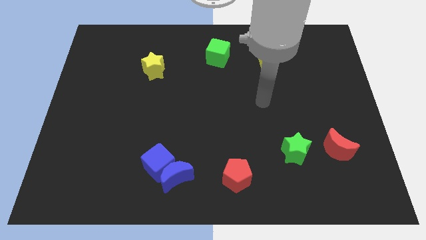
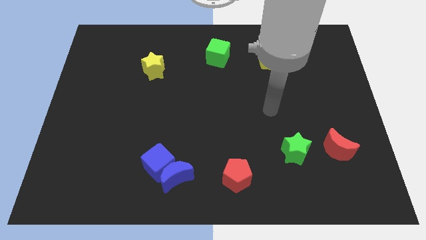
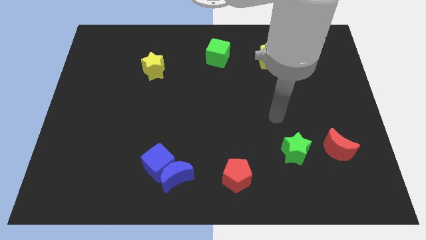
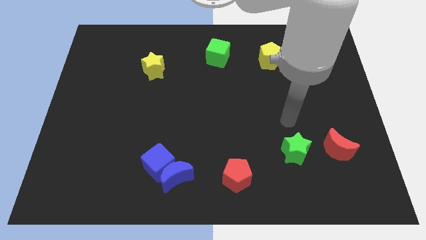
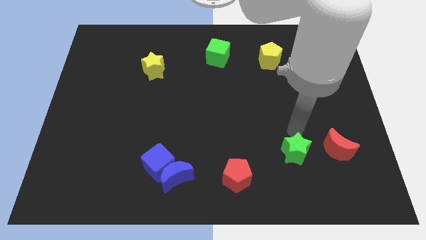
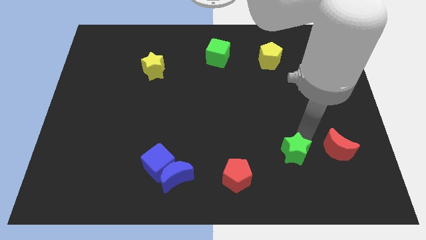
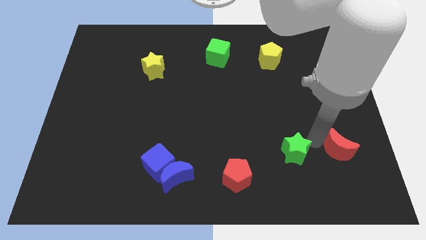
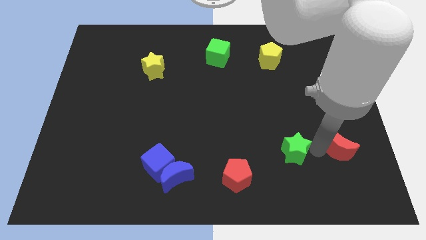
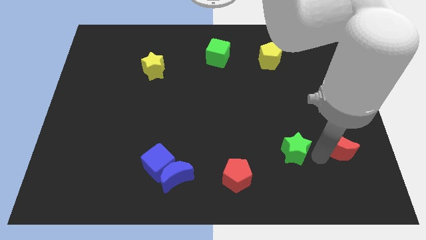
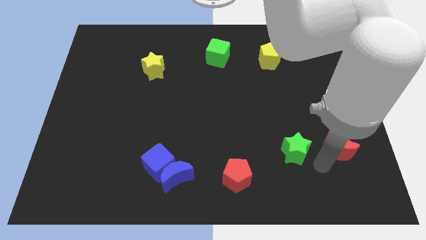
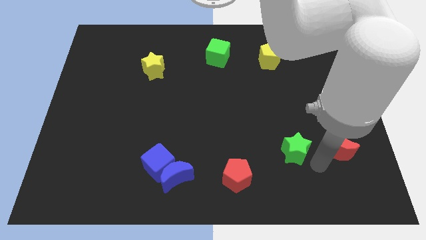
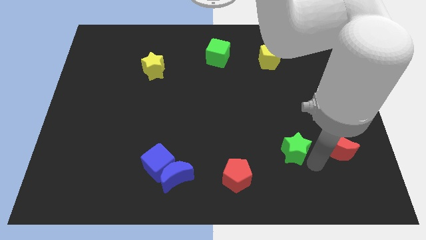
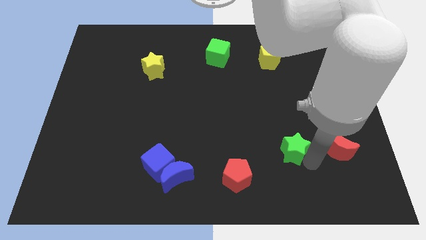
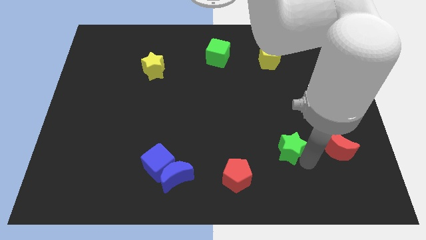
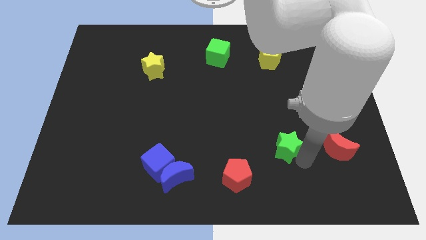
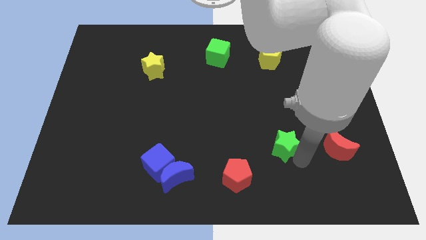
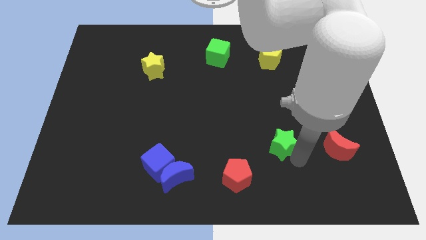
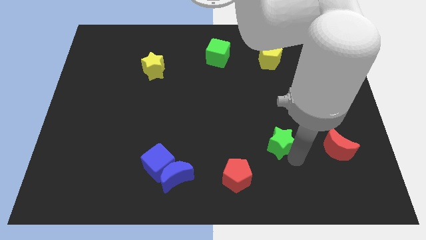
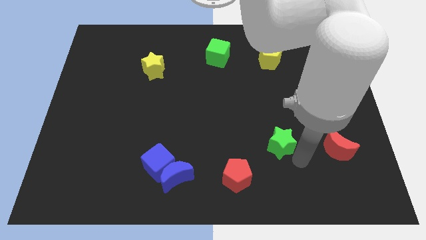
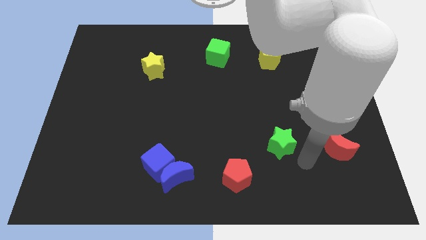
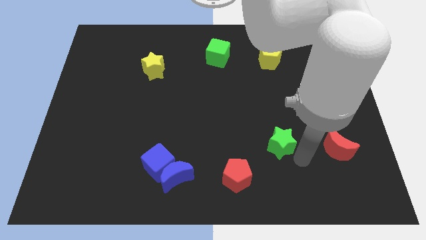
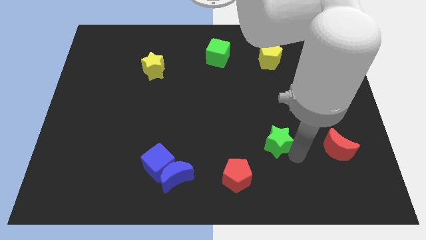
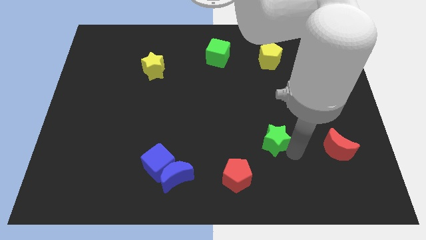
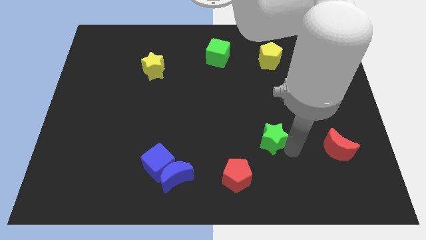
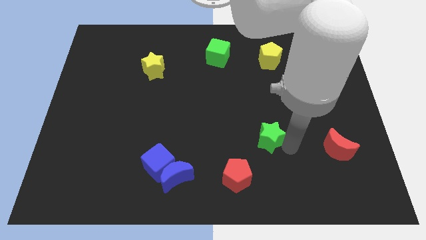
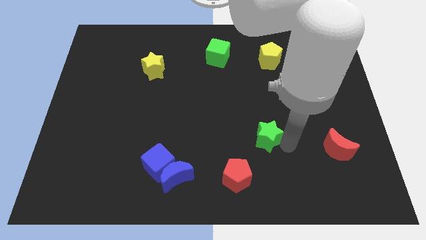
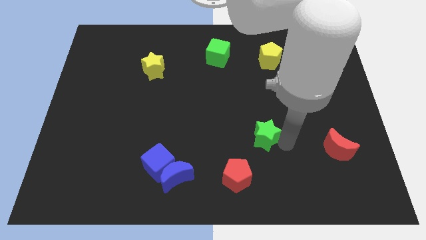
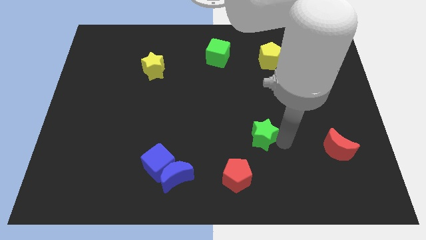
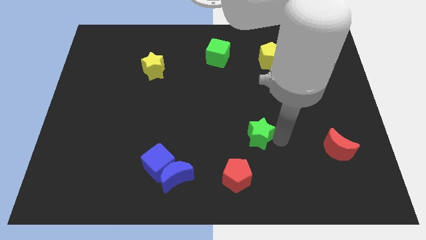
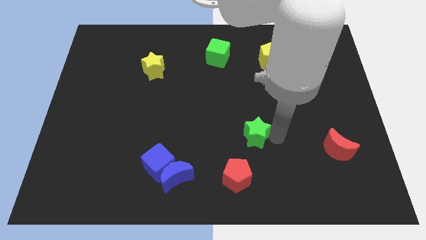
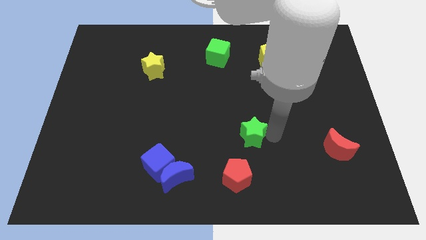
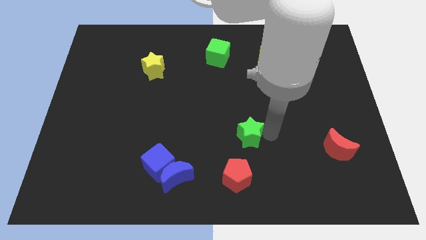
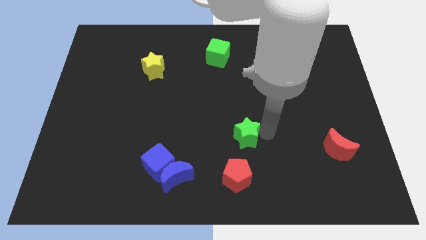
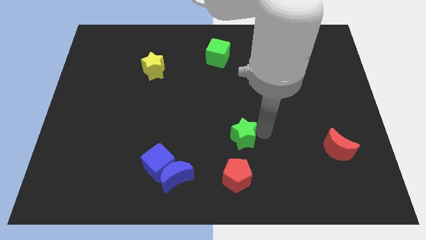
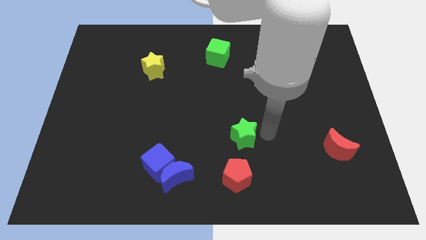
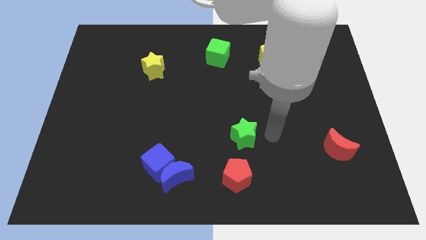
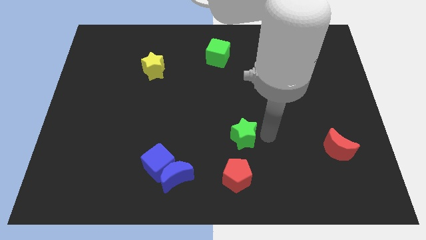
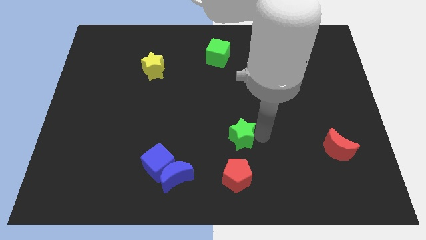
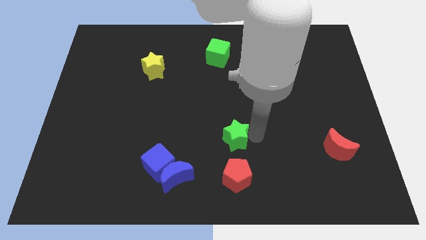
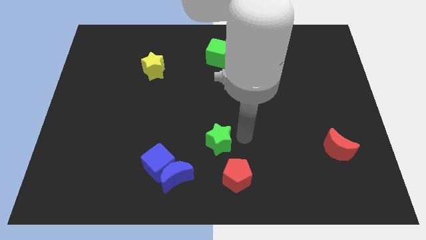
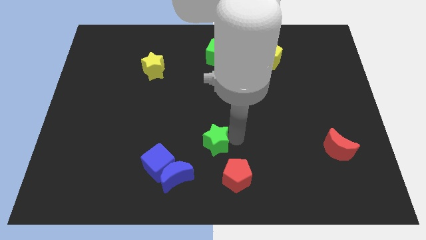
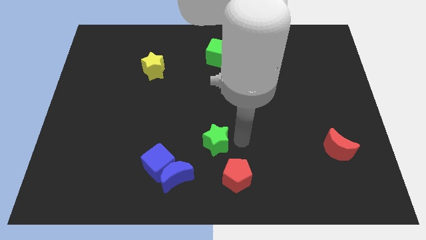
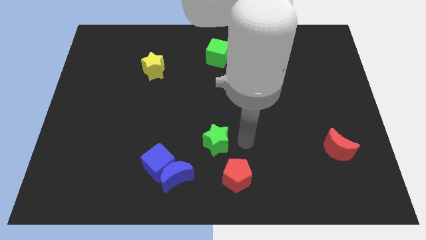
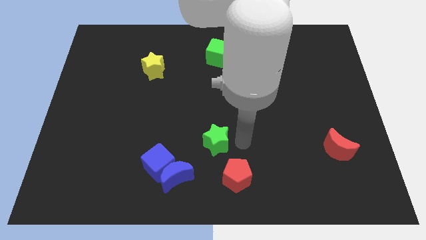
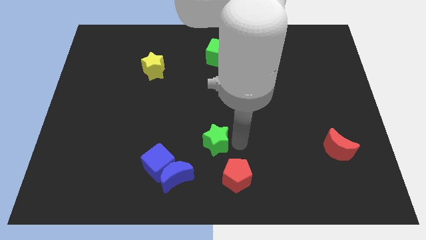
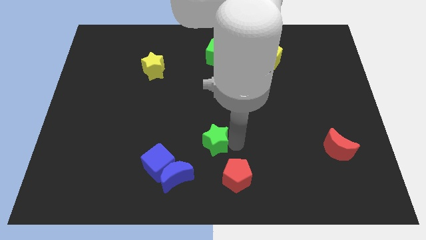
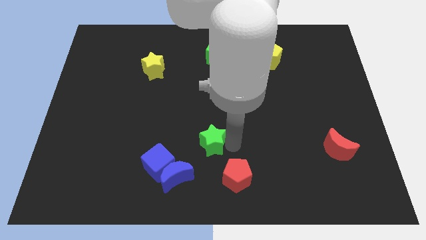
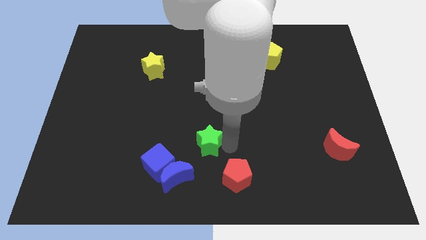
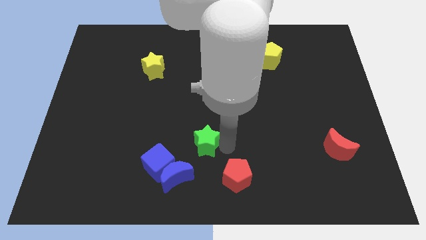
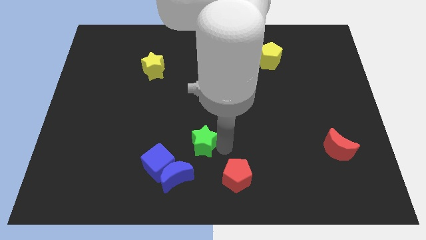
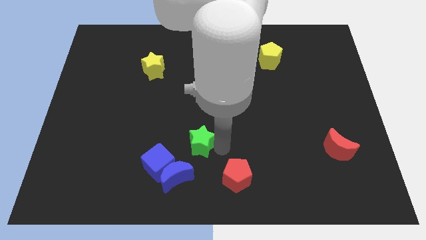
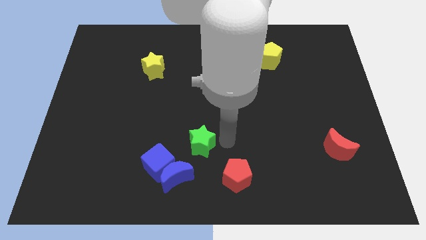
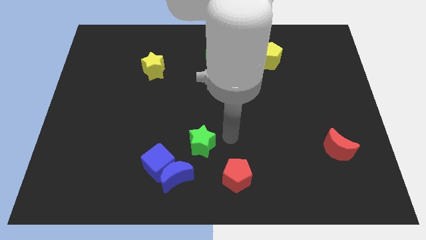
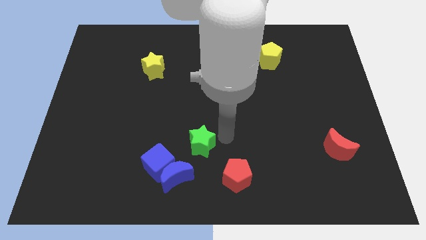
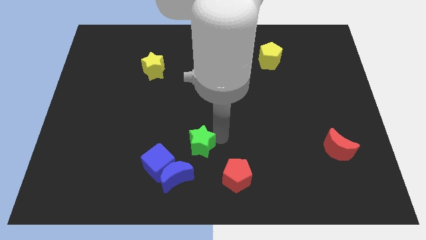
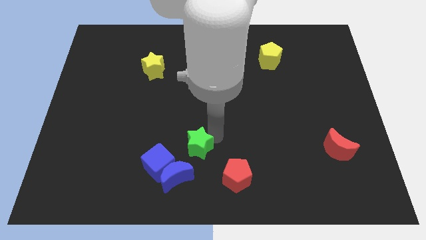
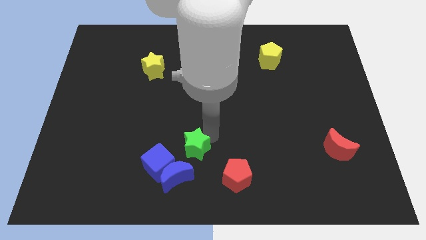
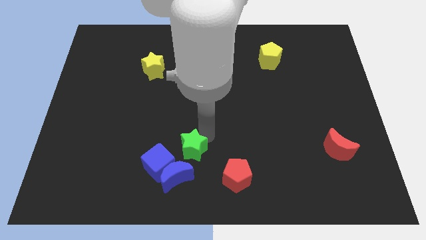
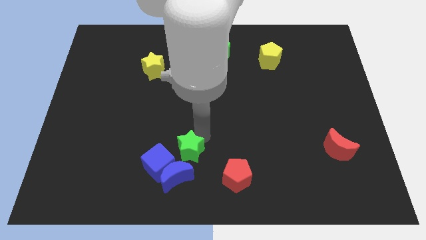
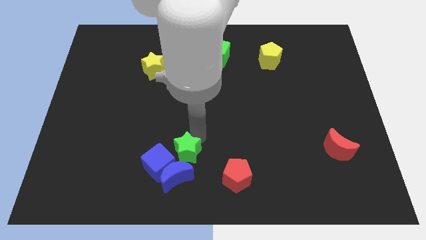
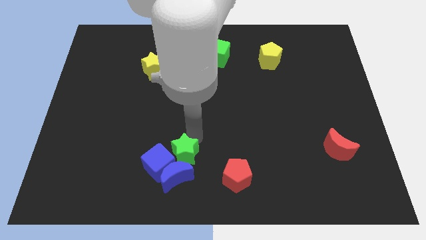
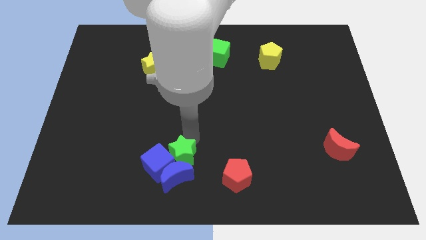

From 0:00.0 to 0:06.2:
put the green star to the top left side of the blue moon
